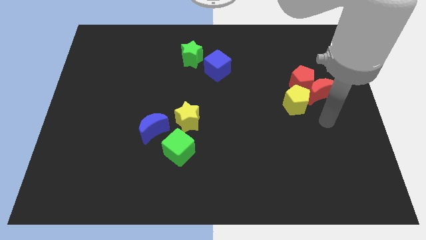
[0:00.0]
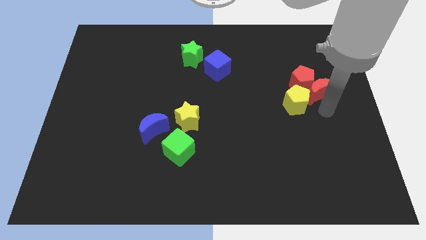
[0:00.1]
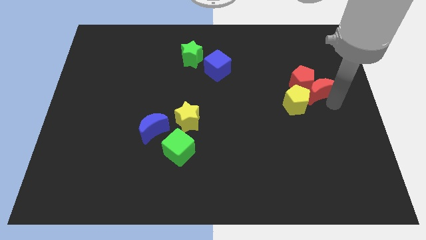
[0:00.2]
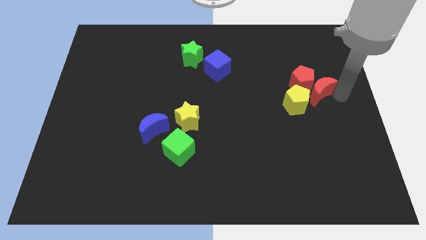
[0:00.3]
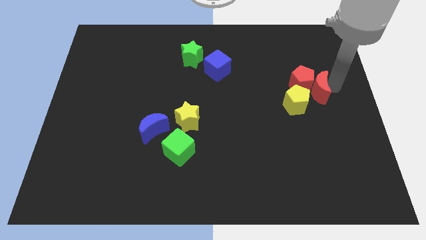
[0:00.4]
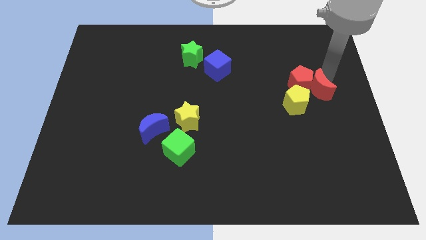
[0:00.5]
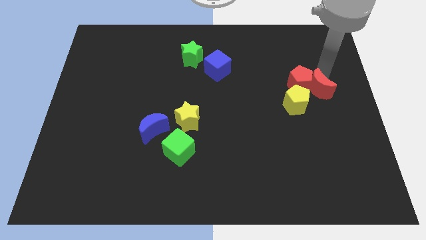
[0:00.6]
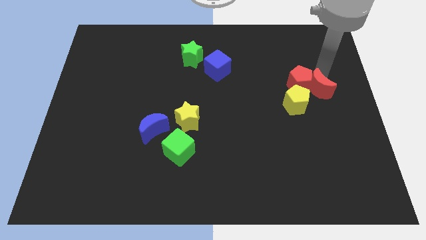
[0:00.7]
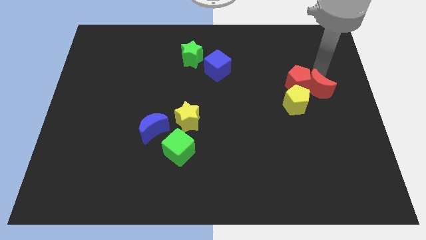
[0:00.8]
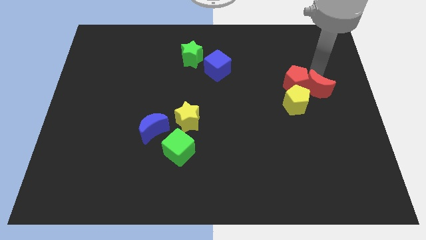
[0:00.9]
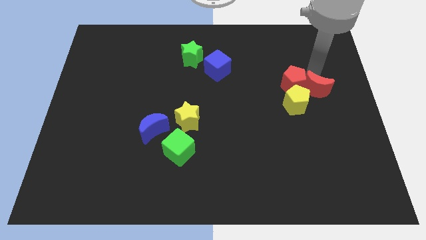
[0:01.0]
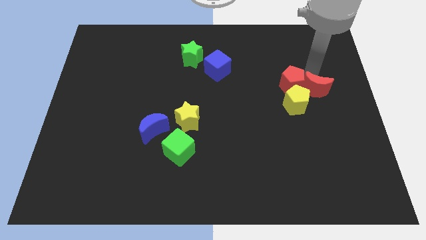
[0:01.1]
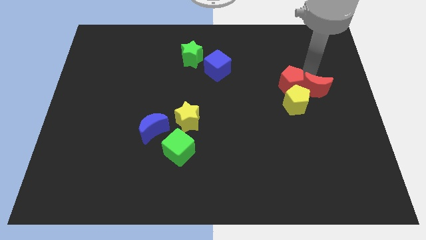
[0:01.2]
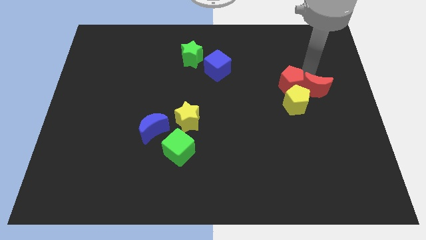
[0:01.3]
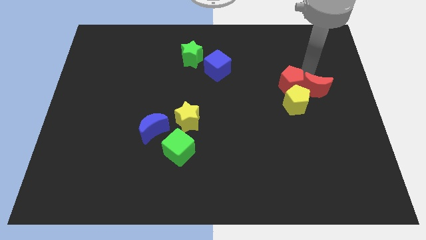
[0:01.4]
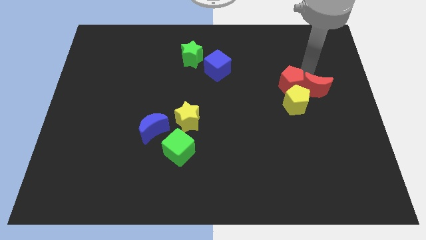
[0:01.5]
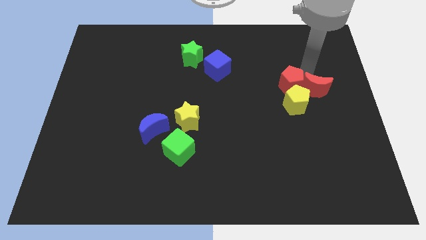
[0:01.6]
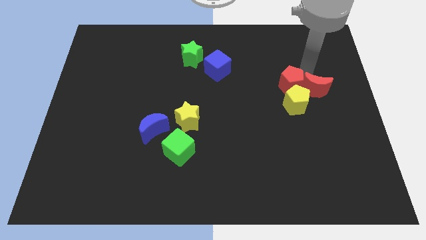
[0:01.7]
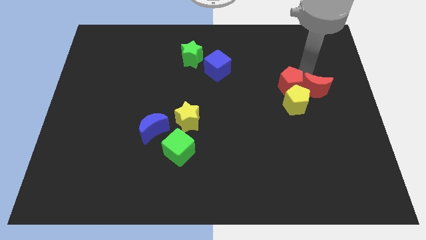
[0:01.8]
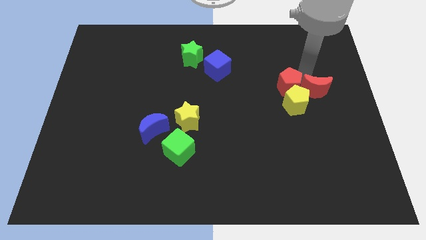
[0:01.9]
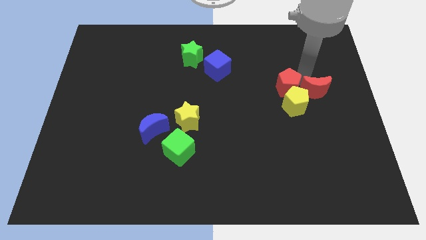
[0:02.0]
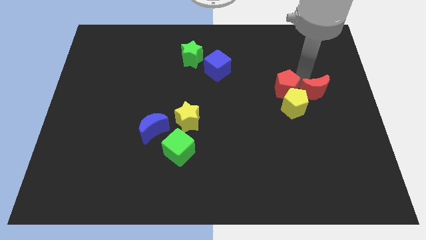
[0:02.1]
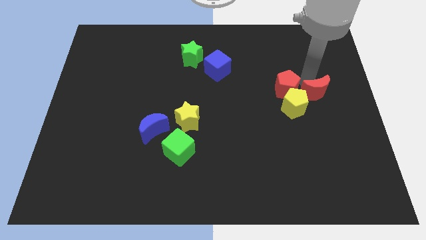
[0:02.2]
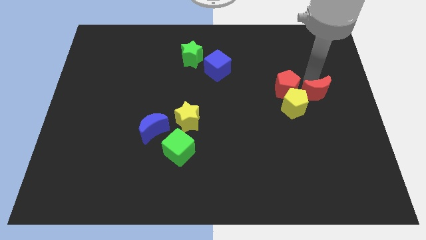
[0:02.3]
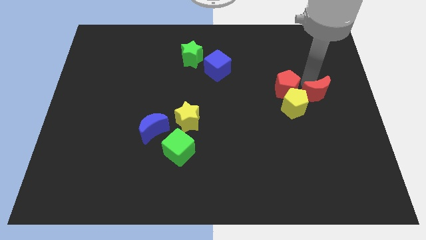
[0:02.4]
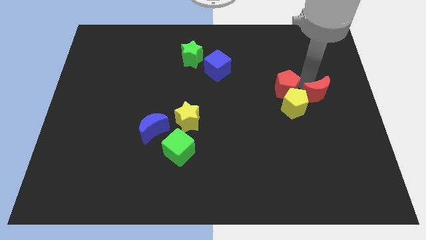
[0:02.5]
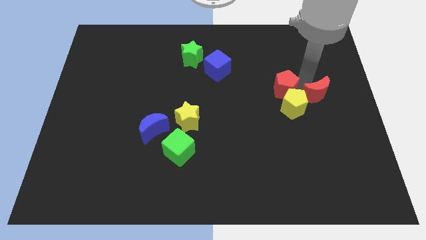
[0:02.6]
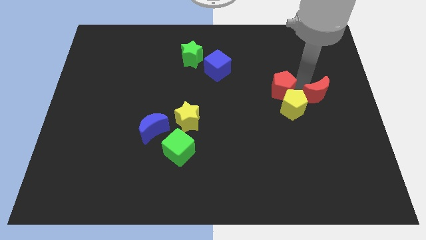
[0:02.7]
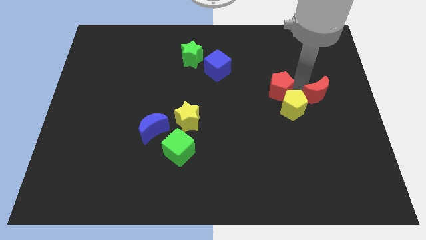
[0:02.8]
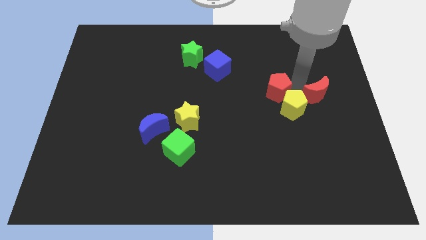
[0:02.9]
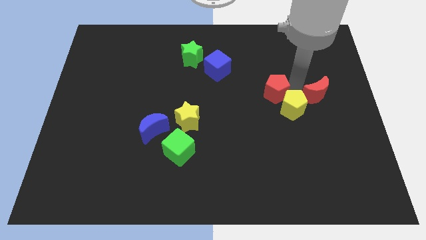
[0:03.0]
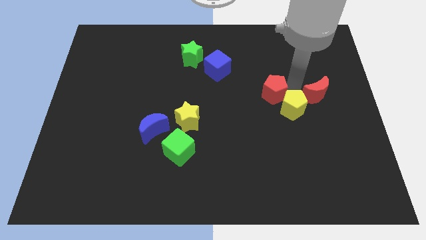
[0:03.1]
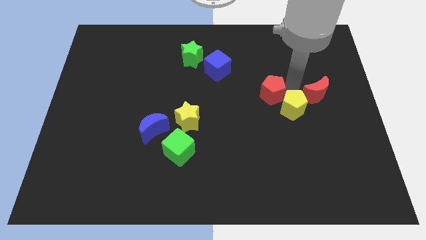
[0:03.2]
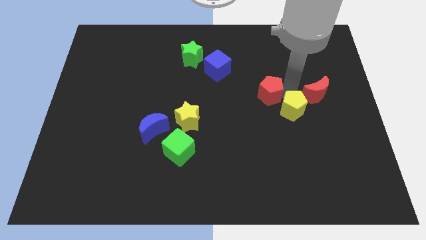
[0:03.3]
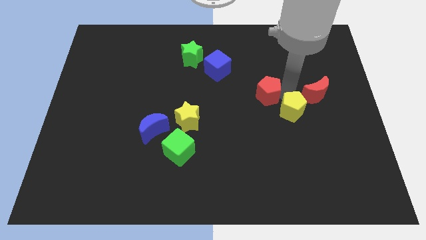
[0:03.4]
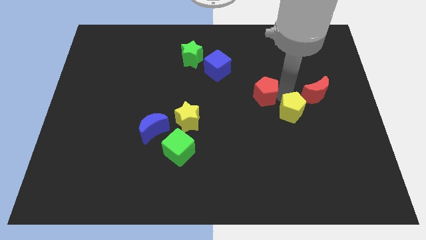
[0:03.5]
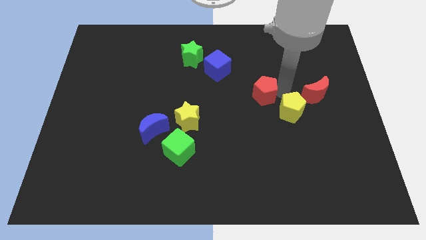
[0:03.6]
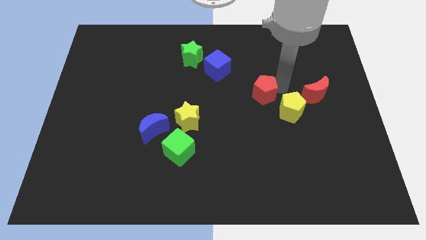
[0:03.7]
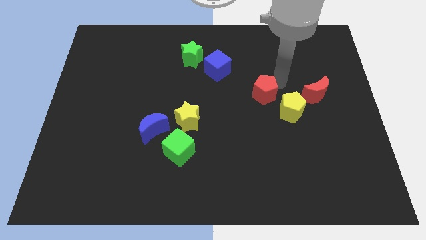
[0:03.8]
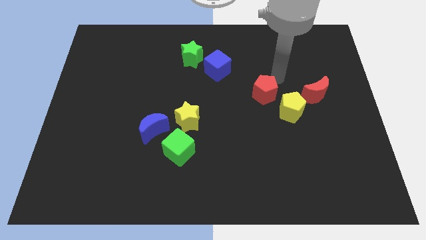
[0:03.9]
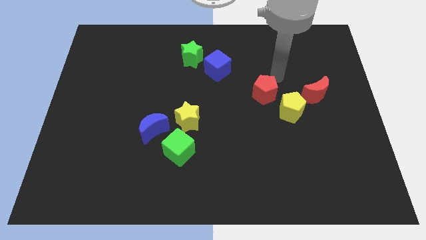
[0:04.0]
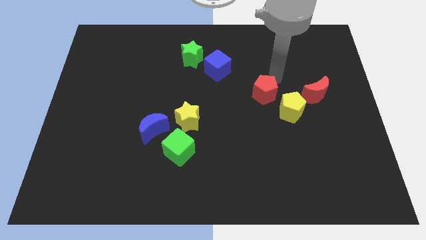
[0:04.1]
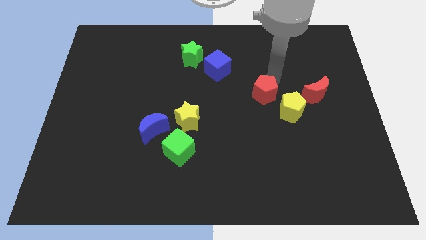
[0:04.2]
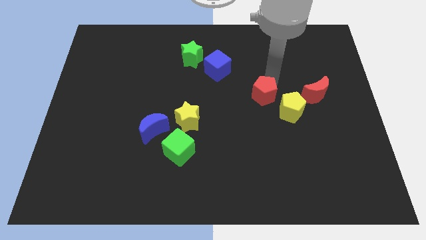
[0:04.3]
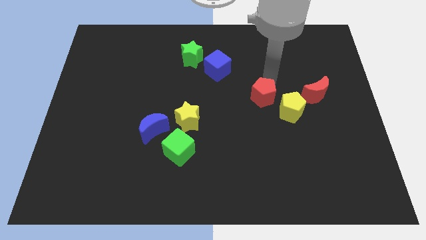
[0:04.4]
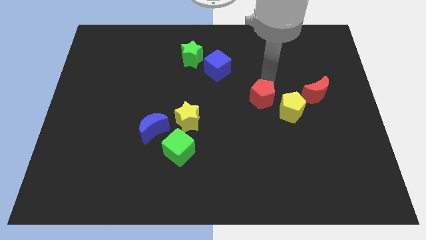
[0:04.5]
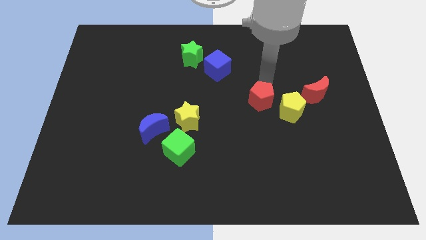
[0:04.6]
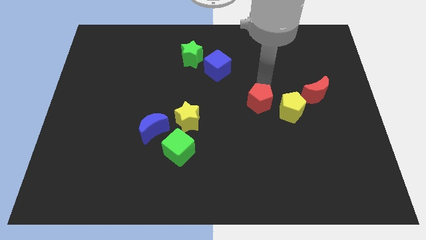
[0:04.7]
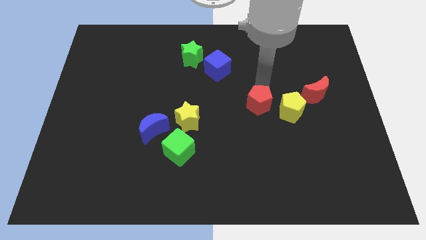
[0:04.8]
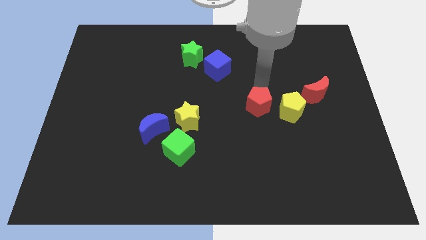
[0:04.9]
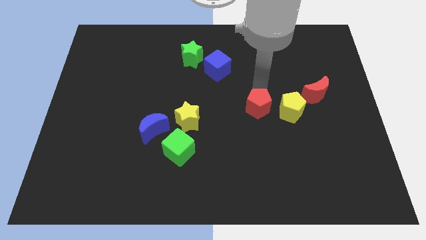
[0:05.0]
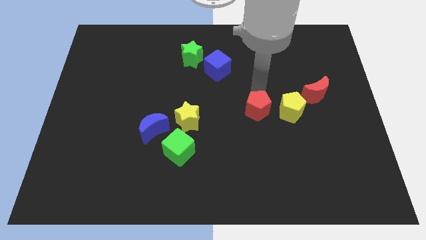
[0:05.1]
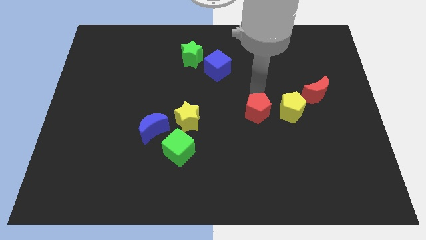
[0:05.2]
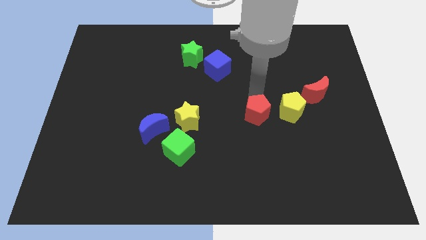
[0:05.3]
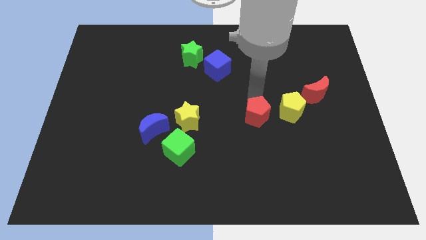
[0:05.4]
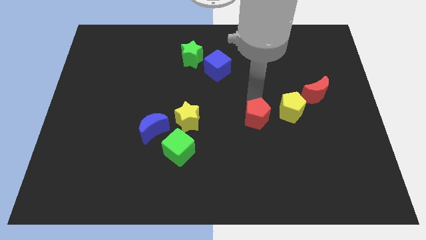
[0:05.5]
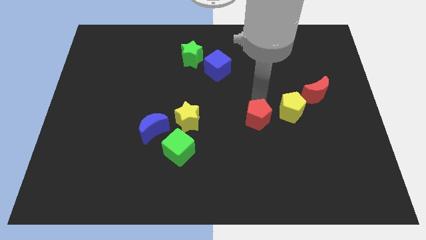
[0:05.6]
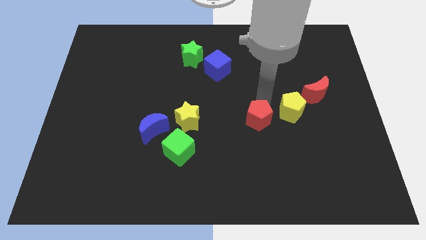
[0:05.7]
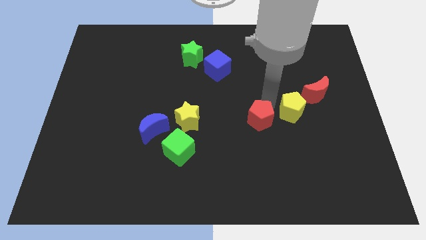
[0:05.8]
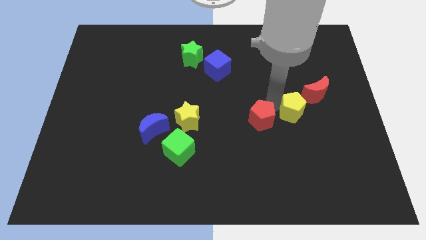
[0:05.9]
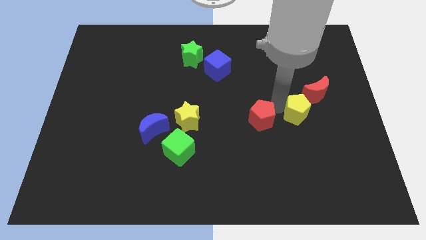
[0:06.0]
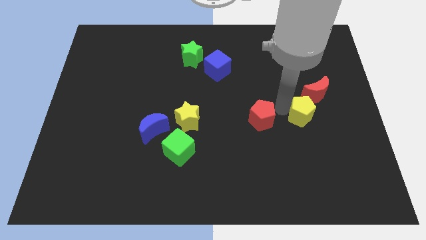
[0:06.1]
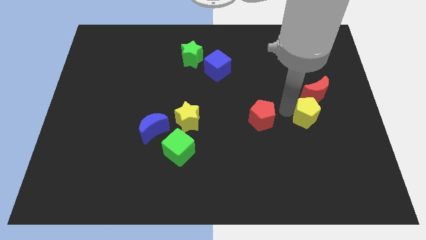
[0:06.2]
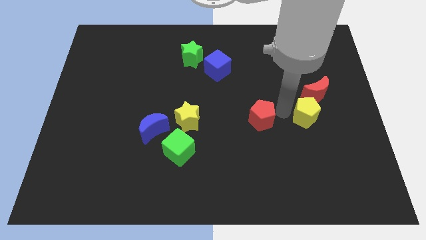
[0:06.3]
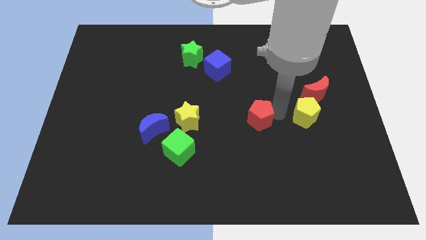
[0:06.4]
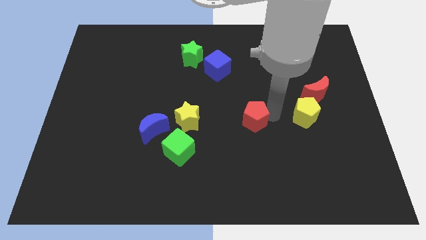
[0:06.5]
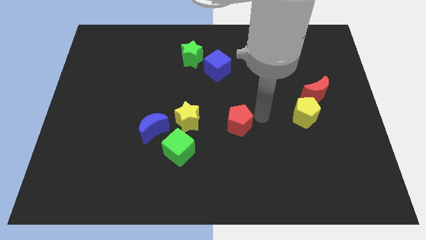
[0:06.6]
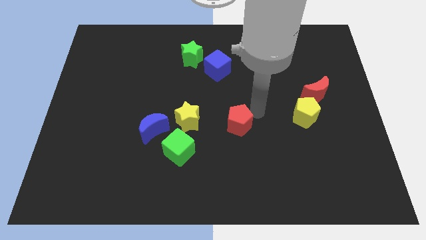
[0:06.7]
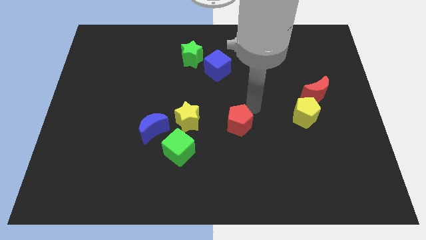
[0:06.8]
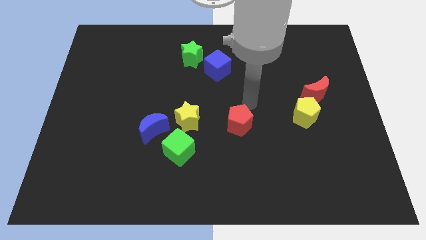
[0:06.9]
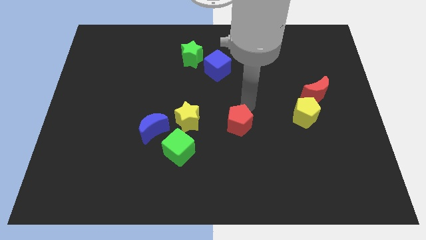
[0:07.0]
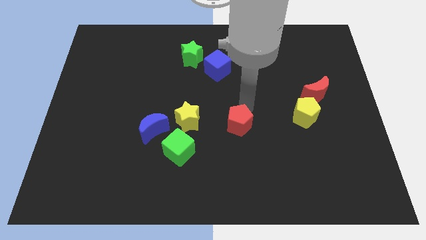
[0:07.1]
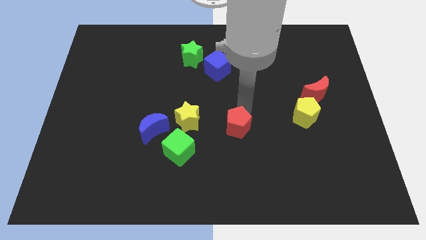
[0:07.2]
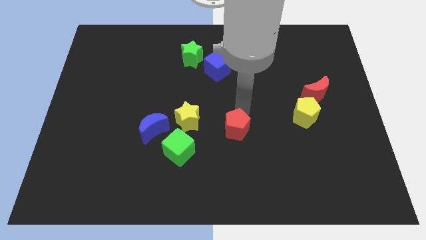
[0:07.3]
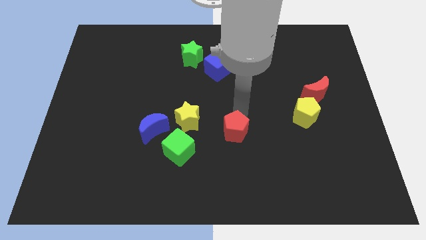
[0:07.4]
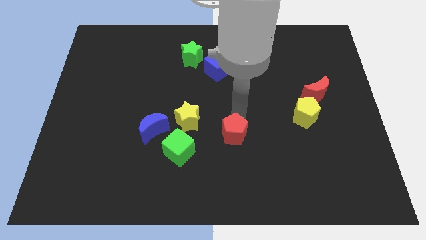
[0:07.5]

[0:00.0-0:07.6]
push the red pentagon to the right of the green cube
